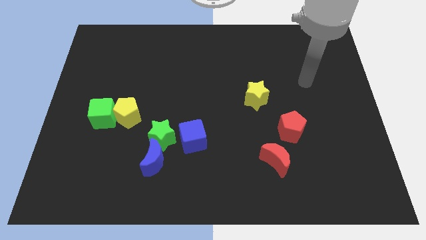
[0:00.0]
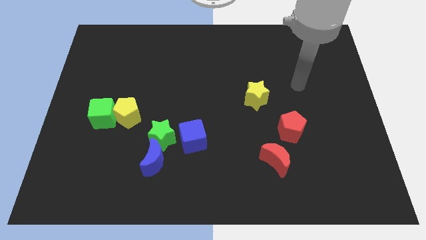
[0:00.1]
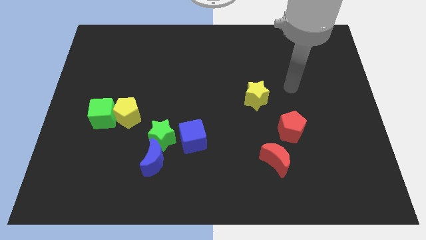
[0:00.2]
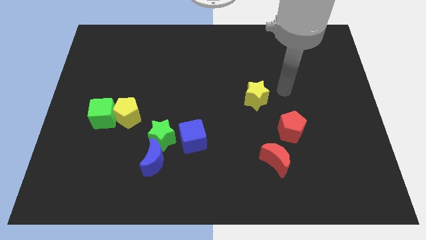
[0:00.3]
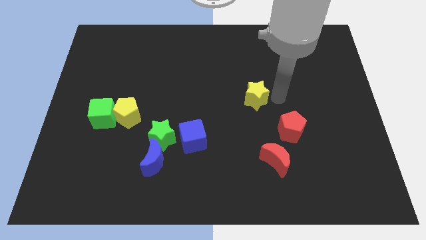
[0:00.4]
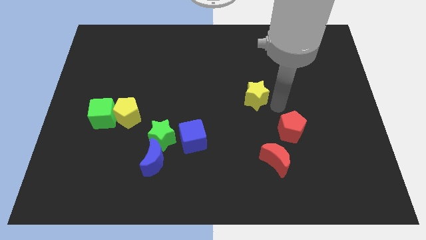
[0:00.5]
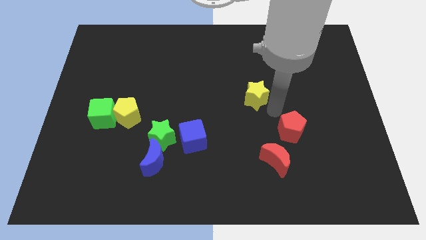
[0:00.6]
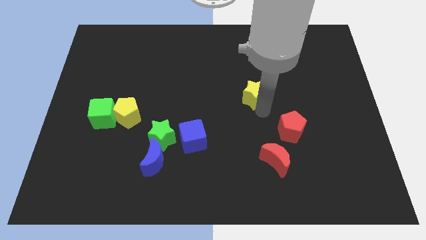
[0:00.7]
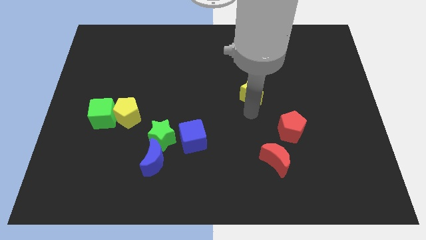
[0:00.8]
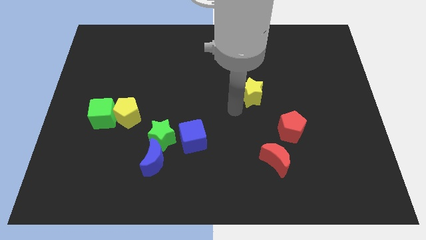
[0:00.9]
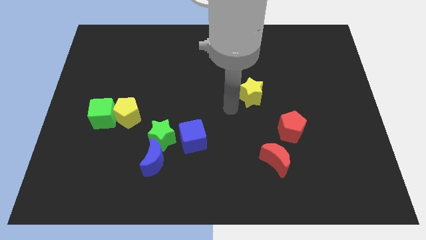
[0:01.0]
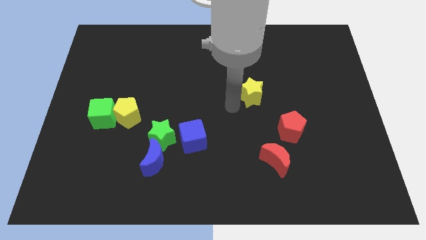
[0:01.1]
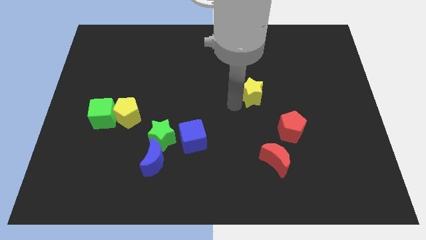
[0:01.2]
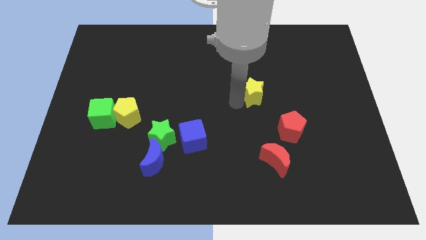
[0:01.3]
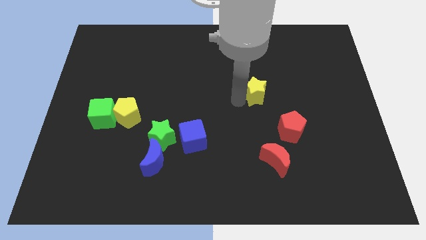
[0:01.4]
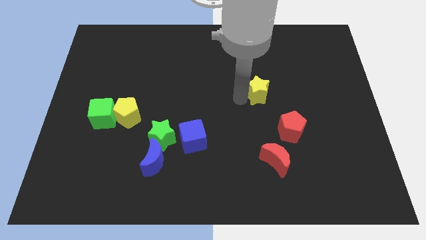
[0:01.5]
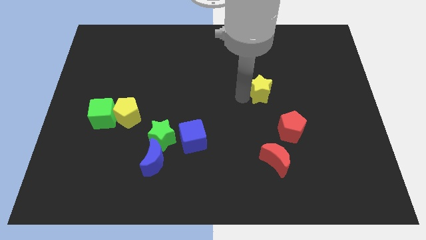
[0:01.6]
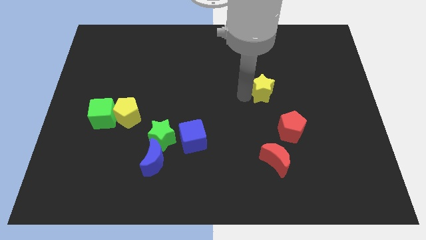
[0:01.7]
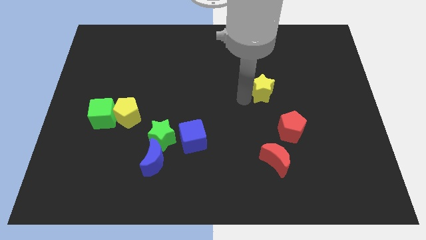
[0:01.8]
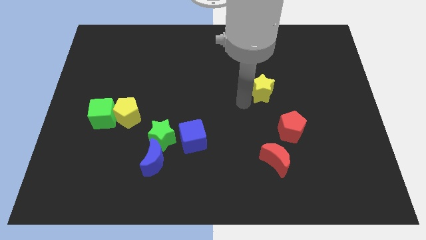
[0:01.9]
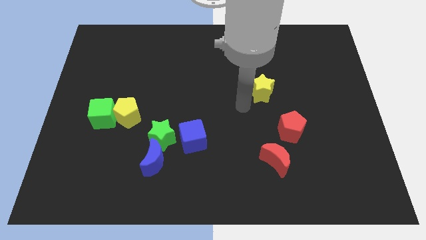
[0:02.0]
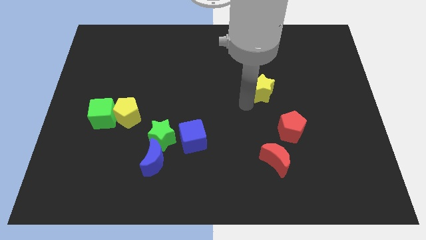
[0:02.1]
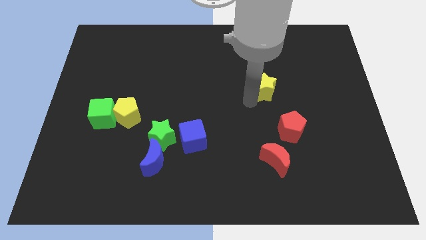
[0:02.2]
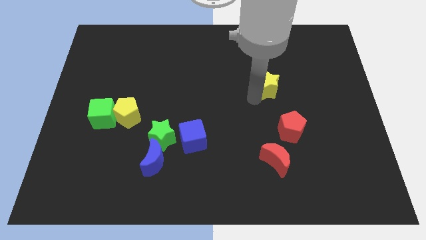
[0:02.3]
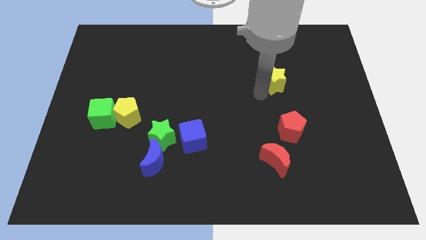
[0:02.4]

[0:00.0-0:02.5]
slightly slide the yellow star diagonally upwards and right

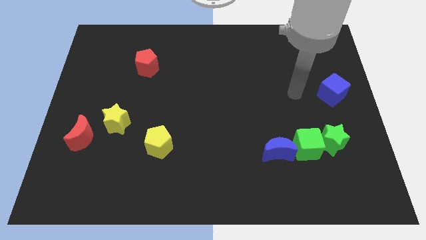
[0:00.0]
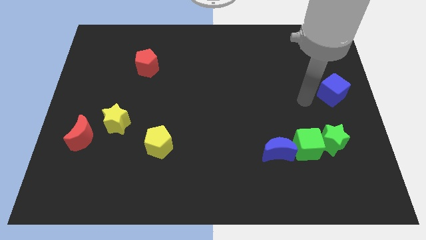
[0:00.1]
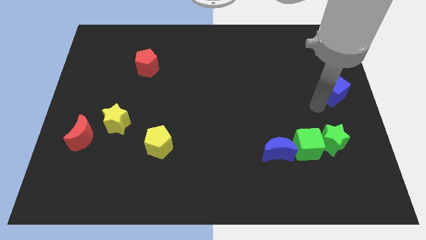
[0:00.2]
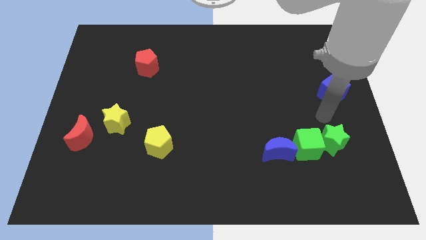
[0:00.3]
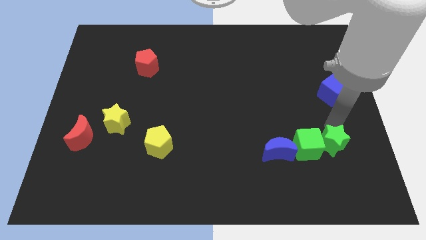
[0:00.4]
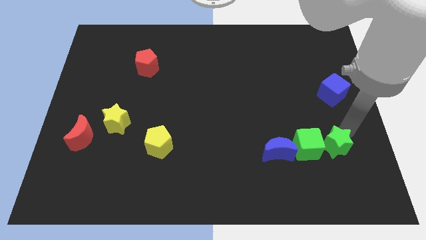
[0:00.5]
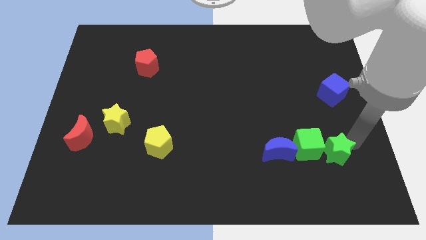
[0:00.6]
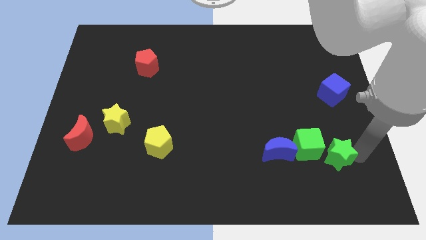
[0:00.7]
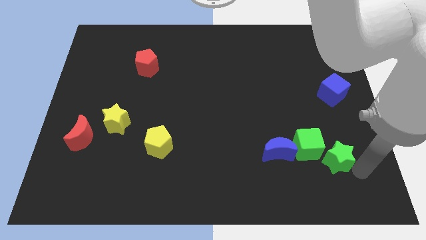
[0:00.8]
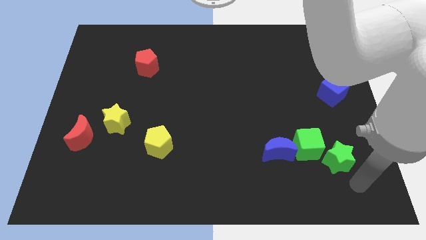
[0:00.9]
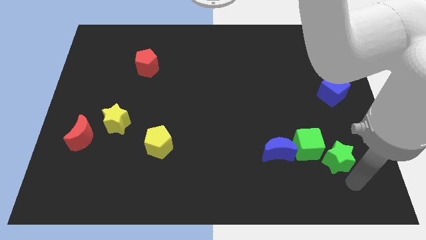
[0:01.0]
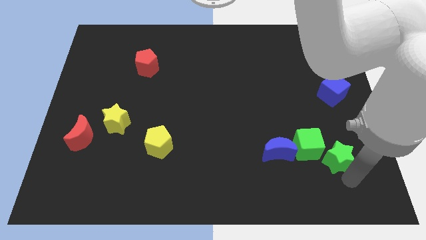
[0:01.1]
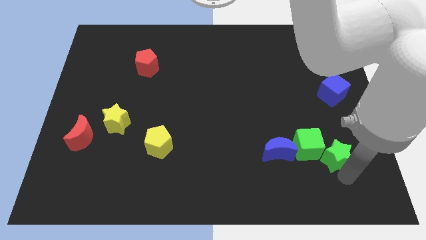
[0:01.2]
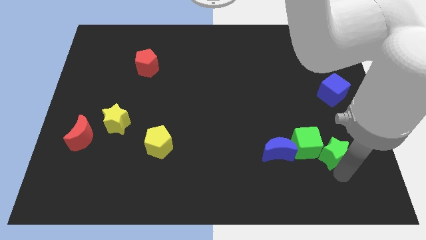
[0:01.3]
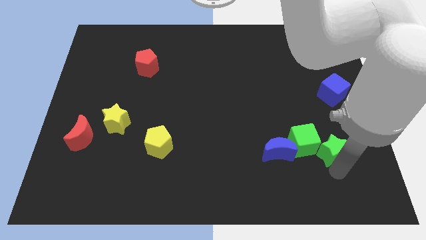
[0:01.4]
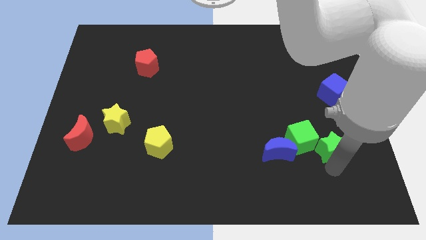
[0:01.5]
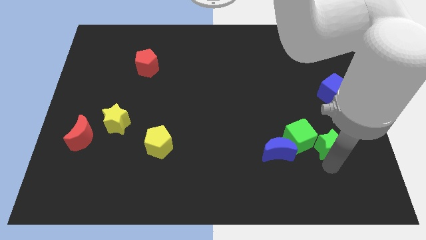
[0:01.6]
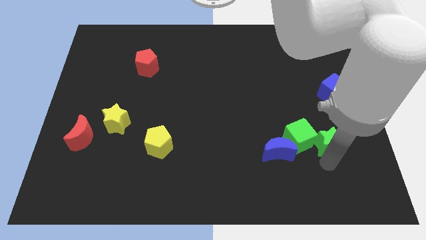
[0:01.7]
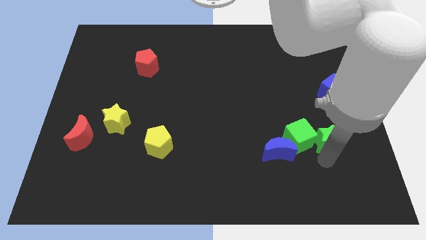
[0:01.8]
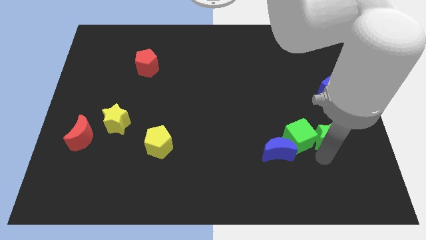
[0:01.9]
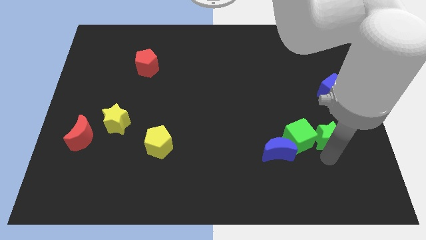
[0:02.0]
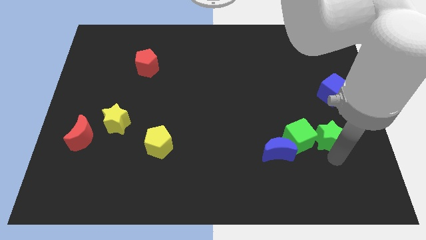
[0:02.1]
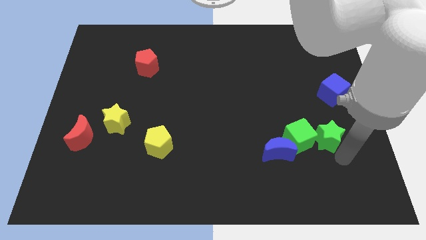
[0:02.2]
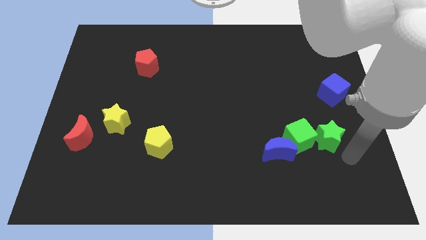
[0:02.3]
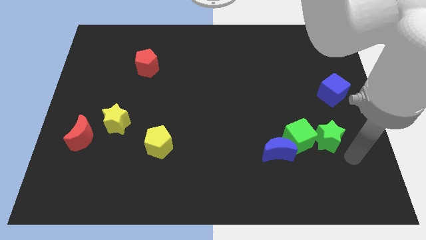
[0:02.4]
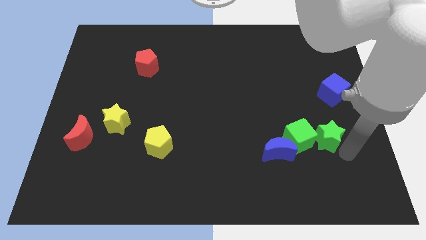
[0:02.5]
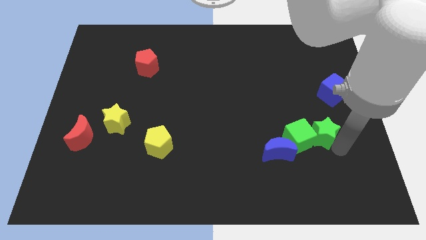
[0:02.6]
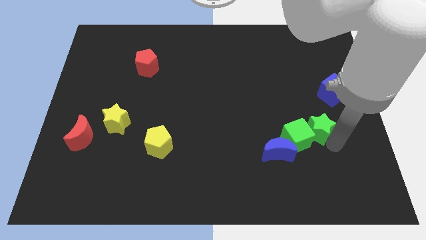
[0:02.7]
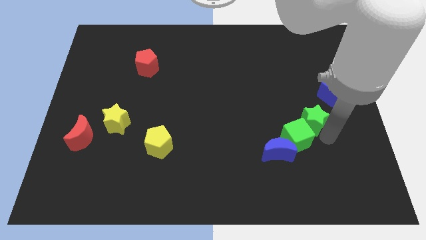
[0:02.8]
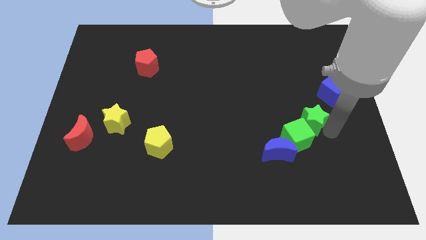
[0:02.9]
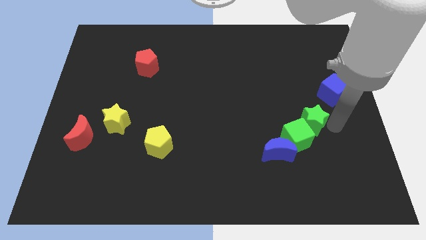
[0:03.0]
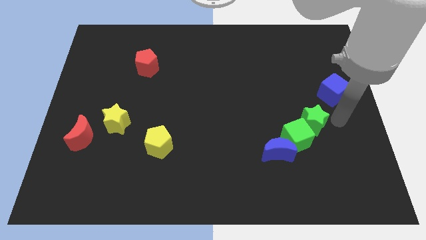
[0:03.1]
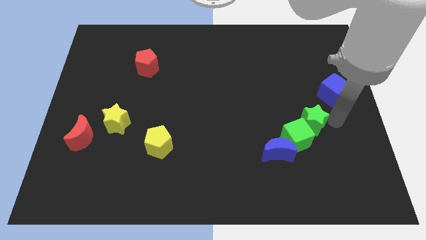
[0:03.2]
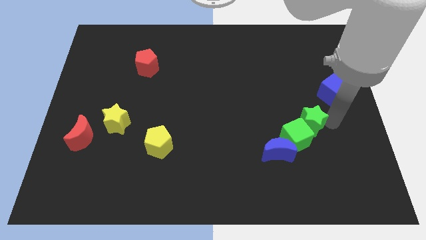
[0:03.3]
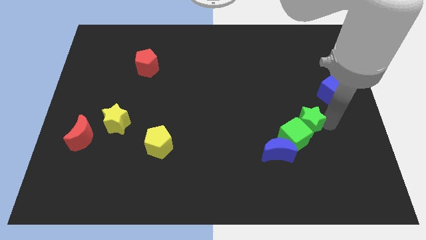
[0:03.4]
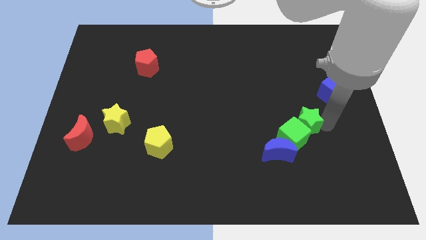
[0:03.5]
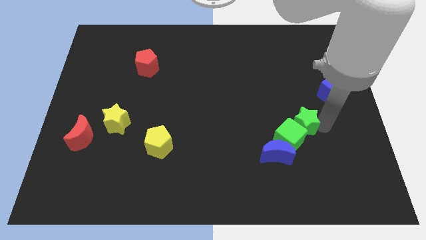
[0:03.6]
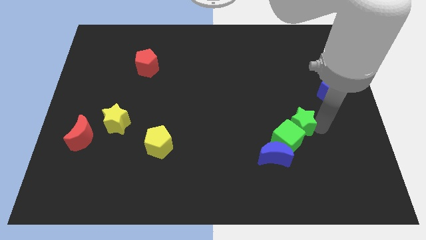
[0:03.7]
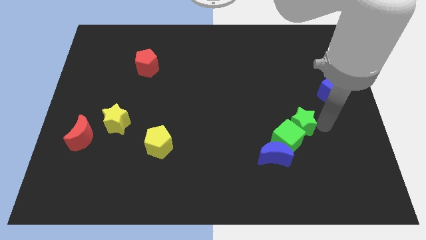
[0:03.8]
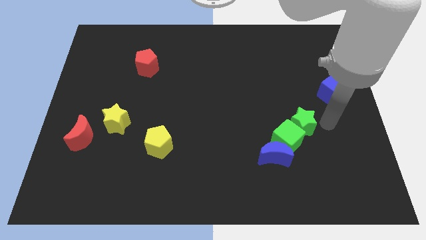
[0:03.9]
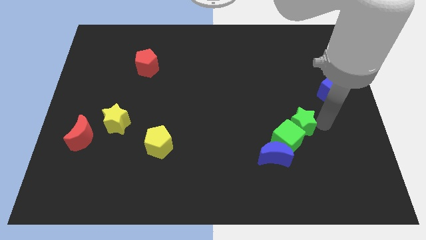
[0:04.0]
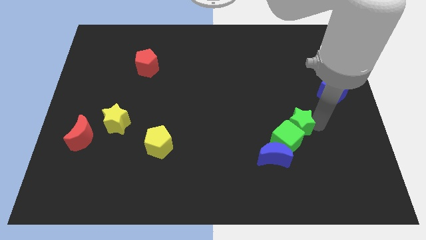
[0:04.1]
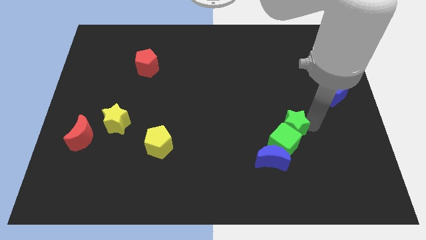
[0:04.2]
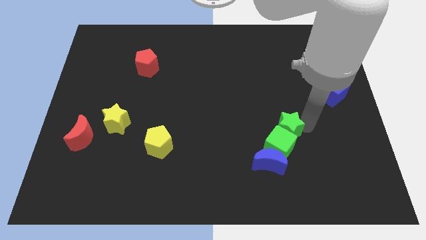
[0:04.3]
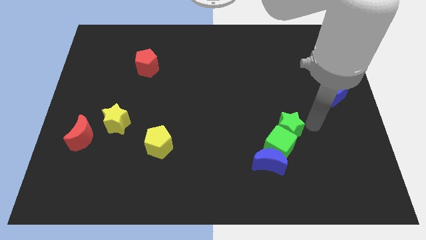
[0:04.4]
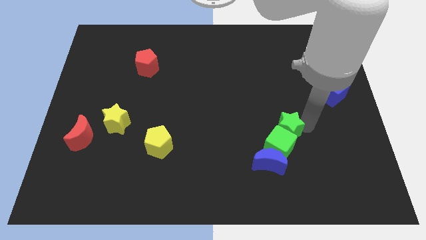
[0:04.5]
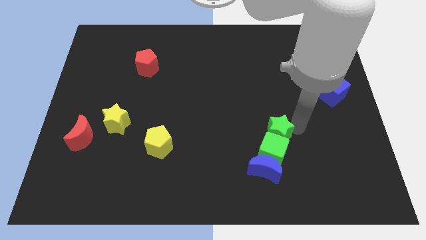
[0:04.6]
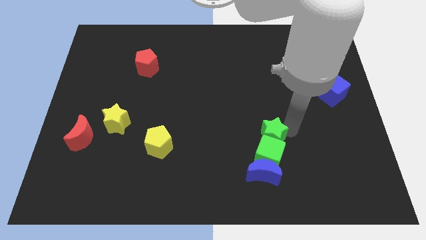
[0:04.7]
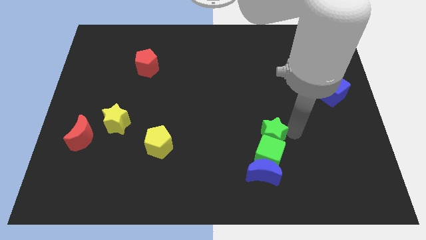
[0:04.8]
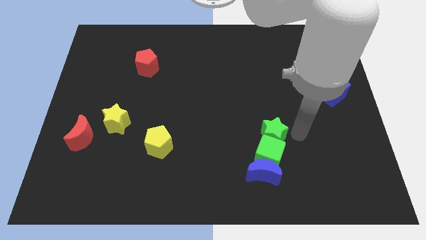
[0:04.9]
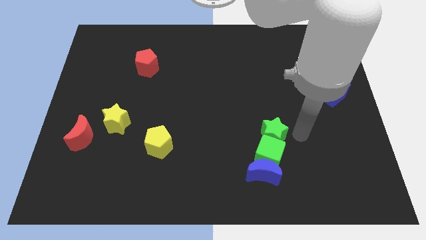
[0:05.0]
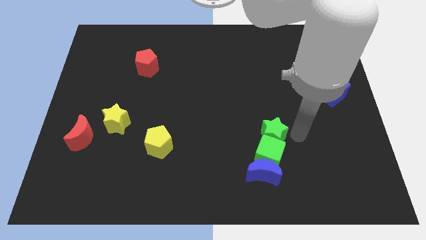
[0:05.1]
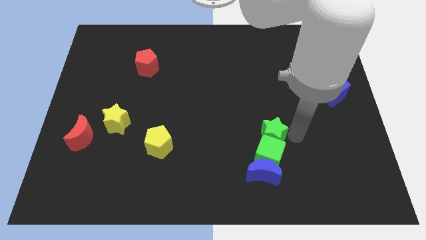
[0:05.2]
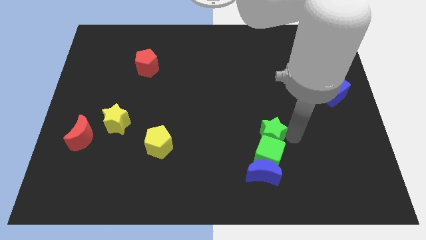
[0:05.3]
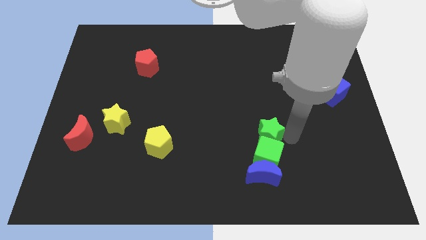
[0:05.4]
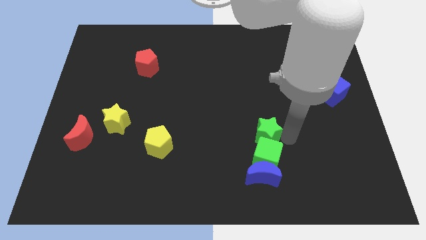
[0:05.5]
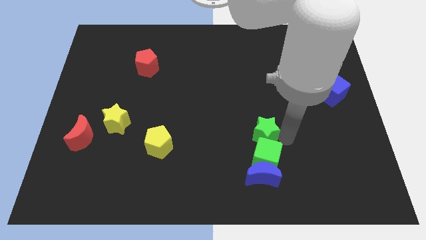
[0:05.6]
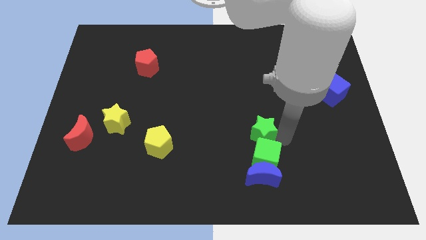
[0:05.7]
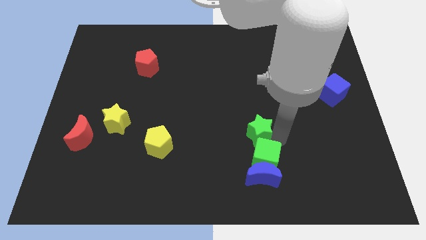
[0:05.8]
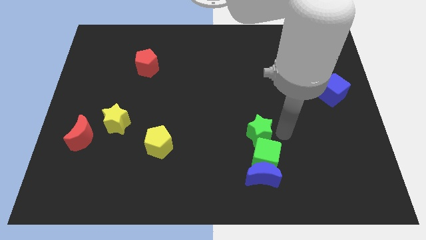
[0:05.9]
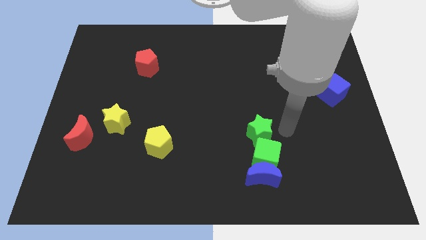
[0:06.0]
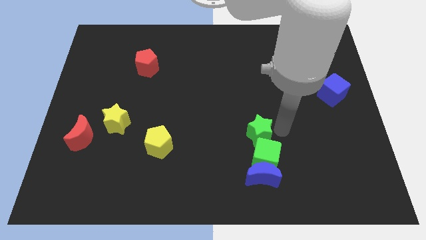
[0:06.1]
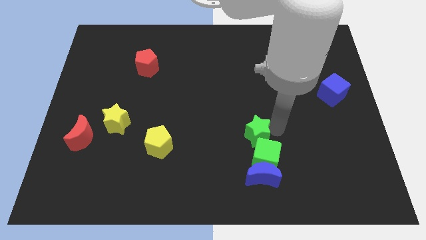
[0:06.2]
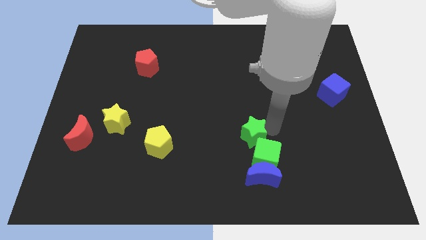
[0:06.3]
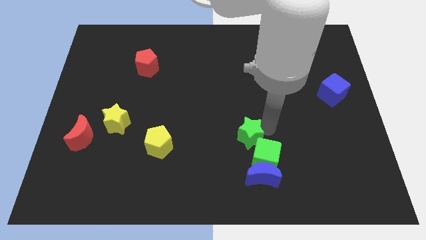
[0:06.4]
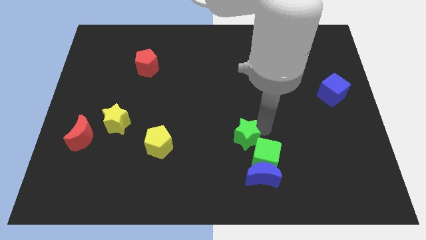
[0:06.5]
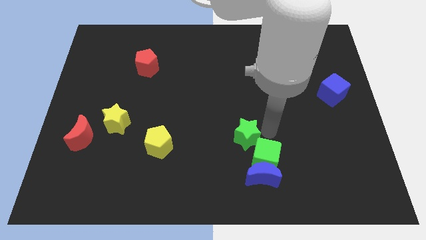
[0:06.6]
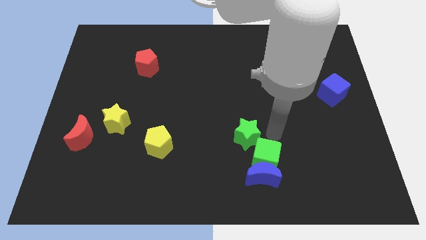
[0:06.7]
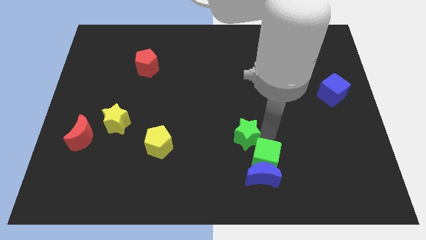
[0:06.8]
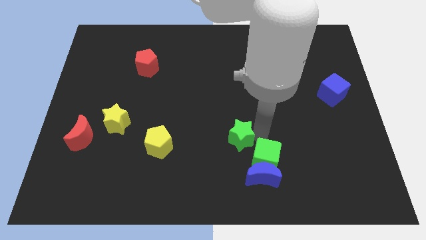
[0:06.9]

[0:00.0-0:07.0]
move the green star left
